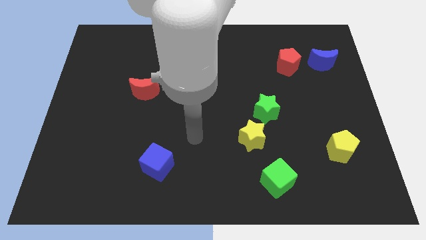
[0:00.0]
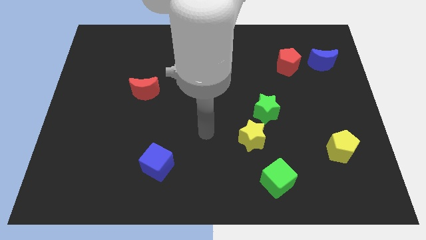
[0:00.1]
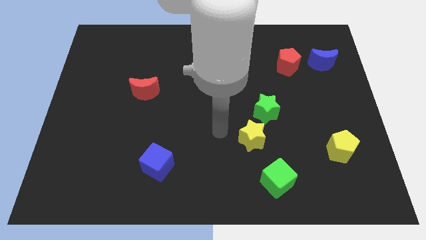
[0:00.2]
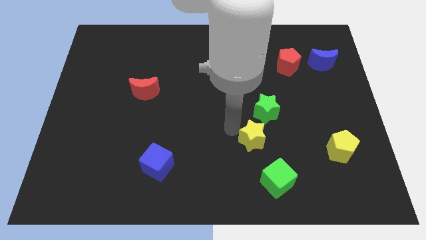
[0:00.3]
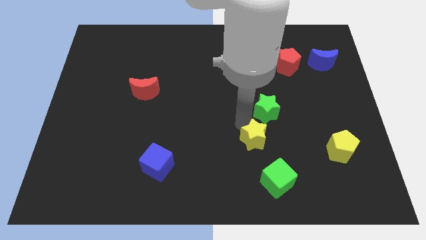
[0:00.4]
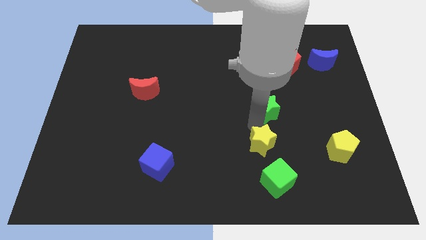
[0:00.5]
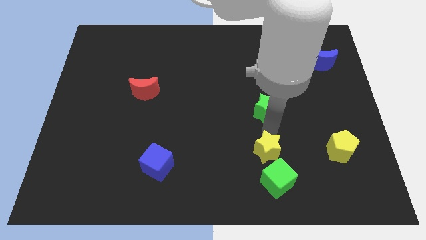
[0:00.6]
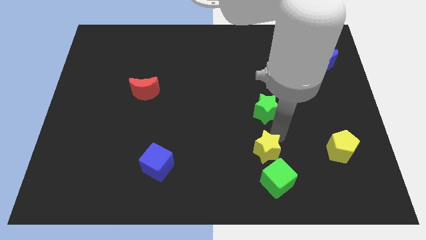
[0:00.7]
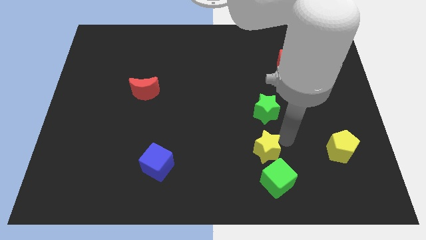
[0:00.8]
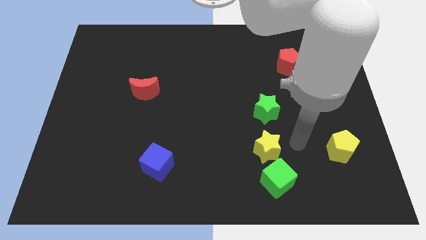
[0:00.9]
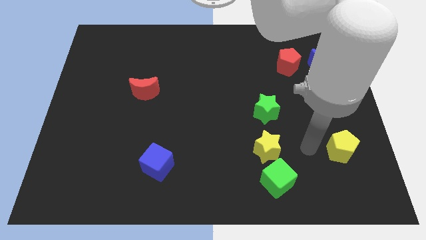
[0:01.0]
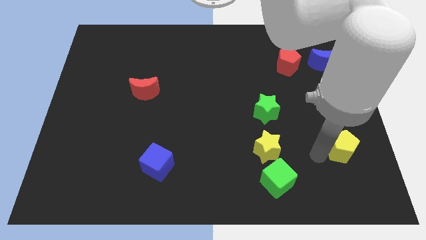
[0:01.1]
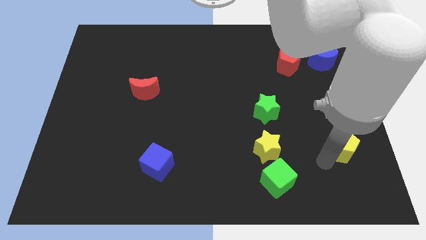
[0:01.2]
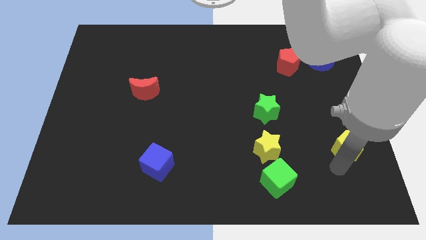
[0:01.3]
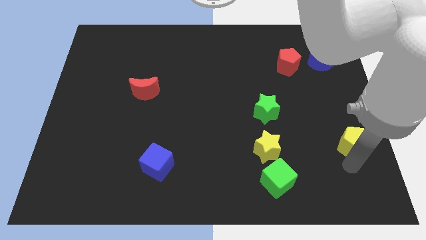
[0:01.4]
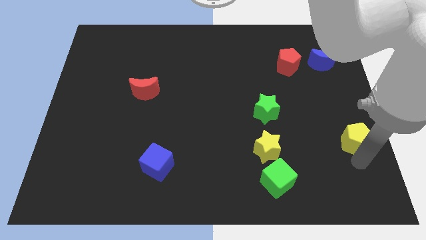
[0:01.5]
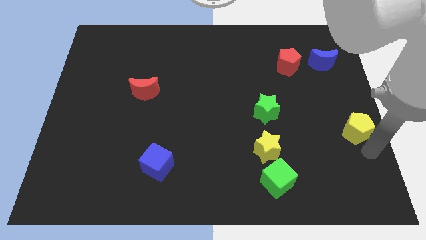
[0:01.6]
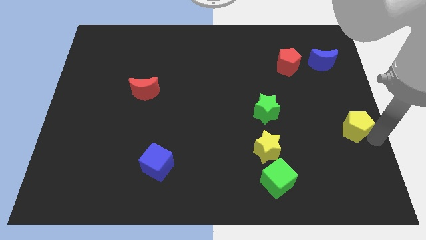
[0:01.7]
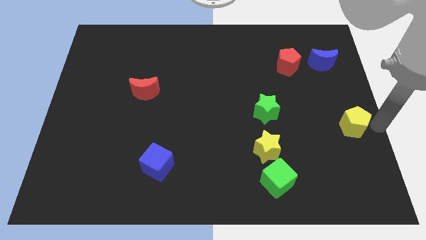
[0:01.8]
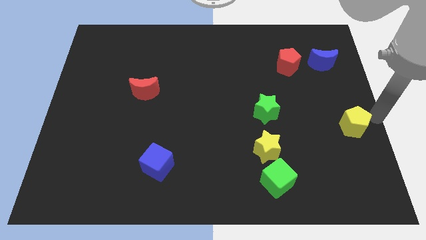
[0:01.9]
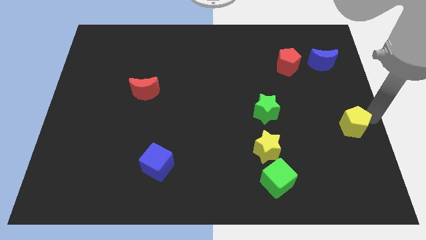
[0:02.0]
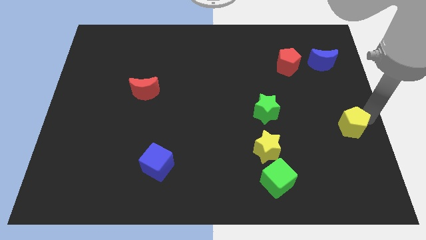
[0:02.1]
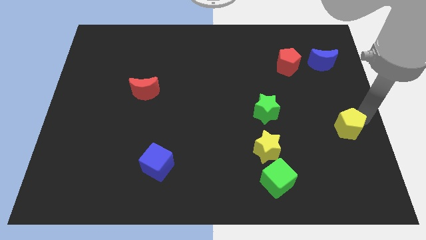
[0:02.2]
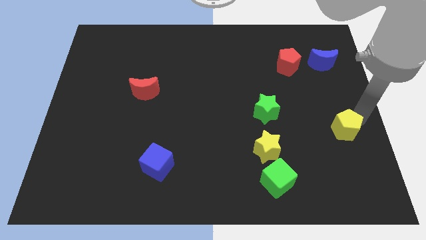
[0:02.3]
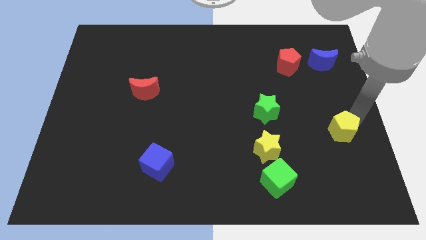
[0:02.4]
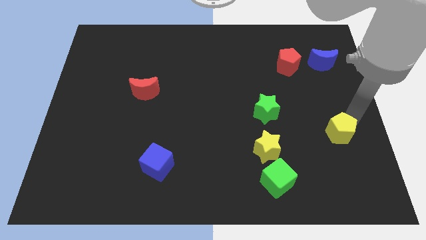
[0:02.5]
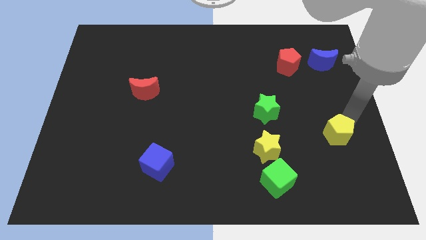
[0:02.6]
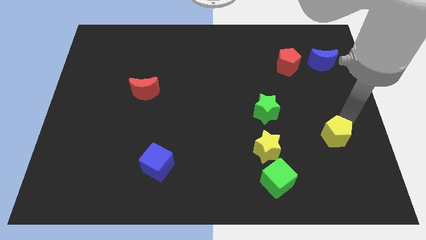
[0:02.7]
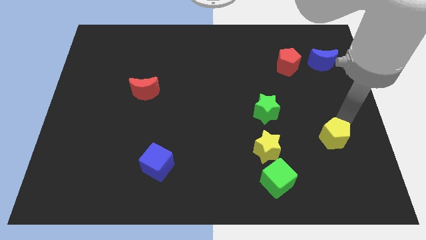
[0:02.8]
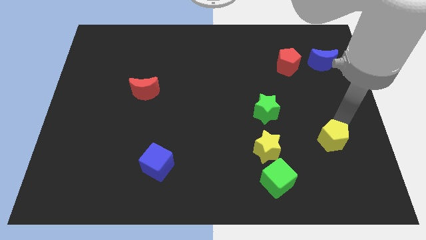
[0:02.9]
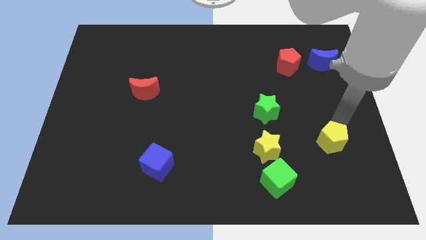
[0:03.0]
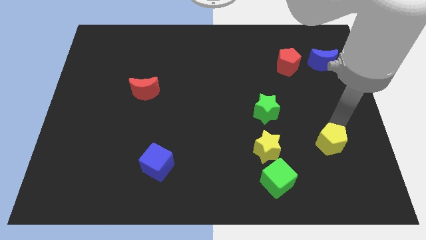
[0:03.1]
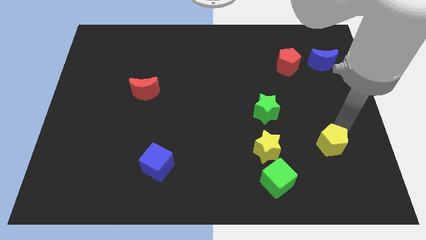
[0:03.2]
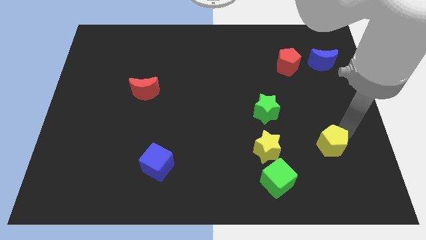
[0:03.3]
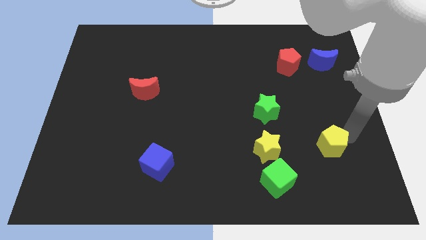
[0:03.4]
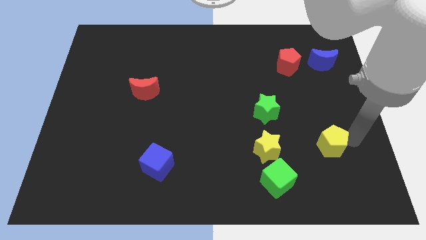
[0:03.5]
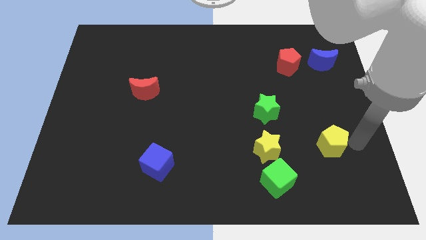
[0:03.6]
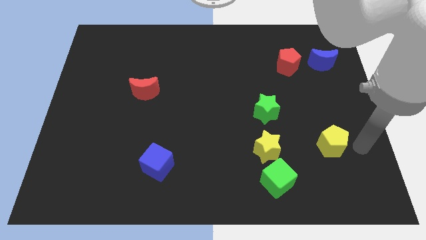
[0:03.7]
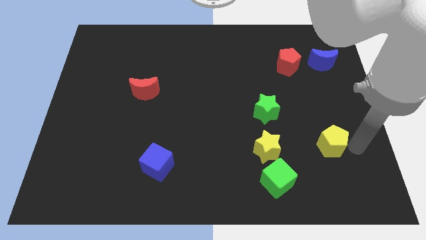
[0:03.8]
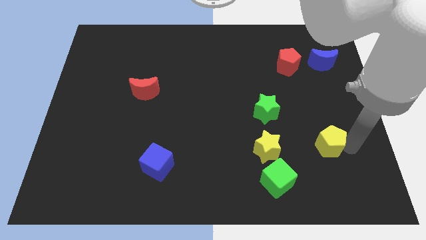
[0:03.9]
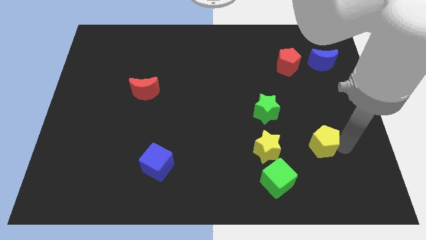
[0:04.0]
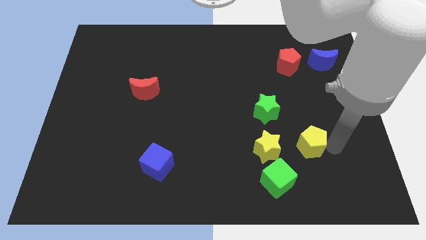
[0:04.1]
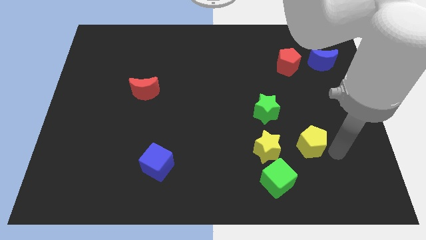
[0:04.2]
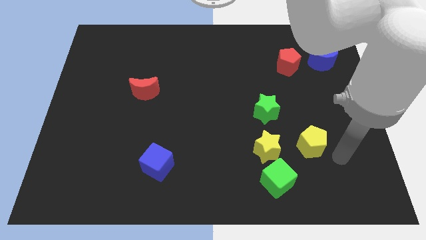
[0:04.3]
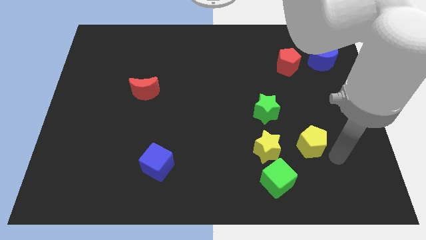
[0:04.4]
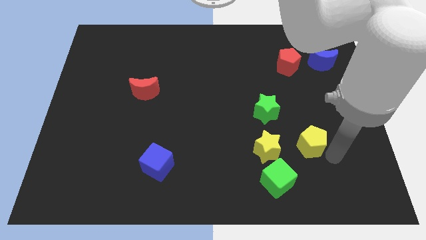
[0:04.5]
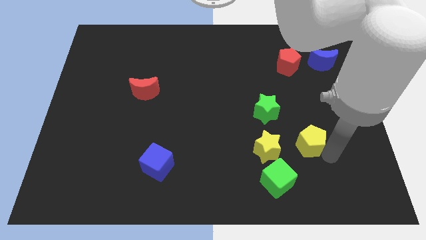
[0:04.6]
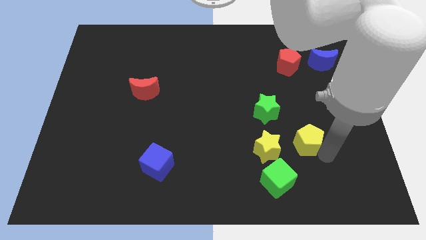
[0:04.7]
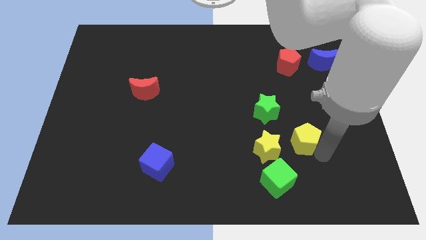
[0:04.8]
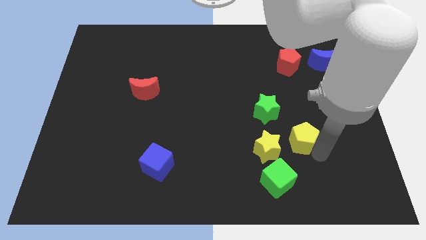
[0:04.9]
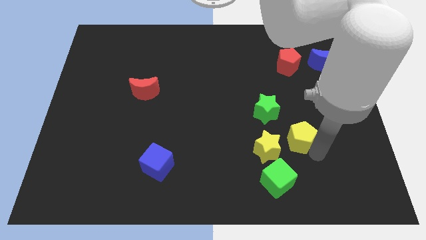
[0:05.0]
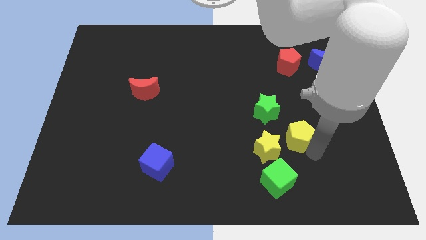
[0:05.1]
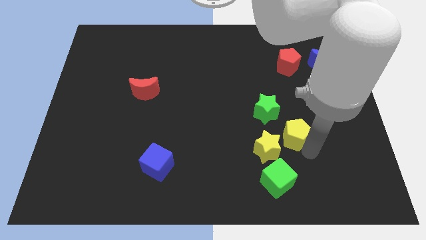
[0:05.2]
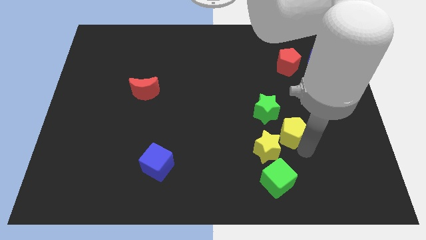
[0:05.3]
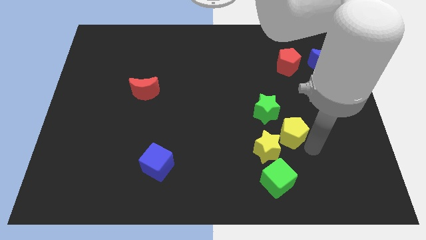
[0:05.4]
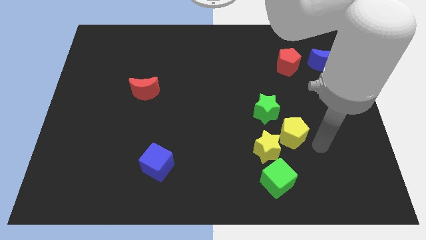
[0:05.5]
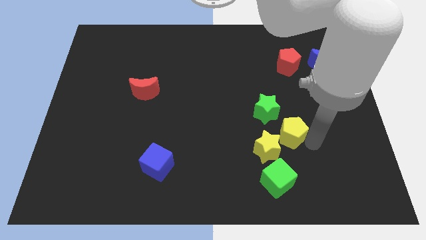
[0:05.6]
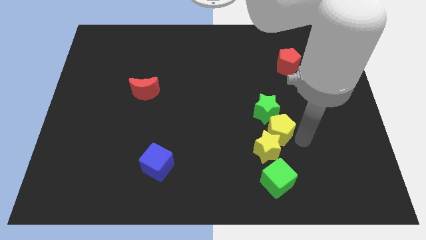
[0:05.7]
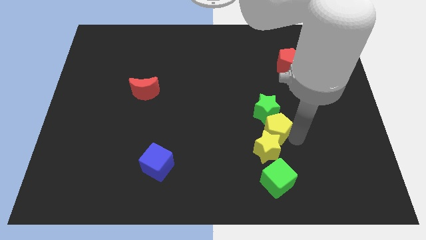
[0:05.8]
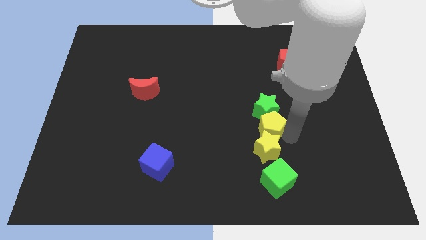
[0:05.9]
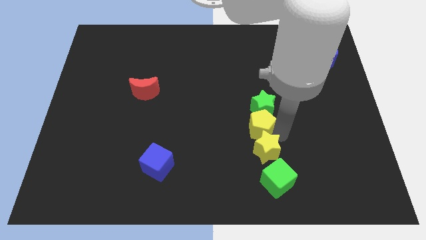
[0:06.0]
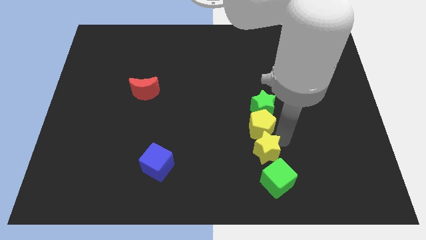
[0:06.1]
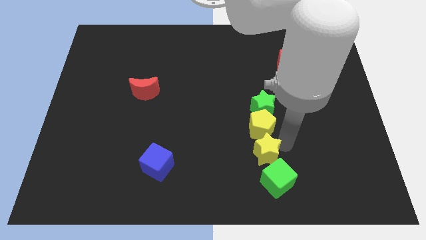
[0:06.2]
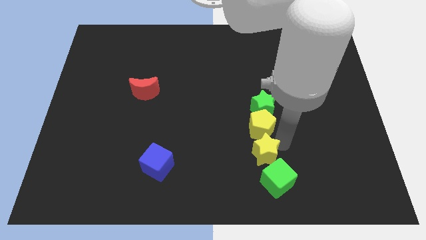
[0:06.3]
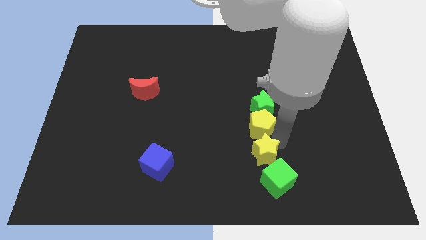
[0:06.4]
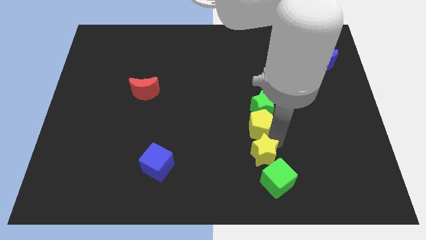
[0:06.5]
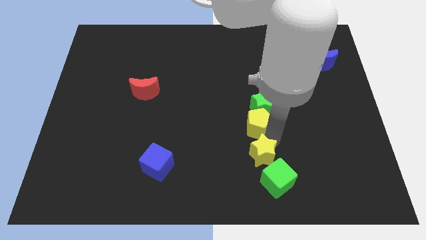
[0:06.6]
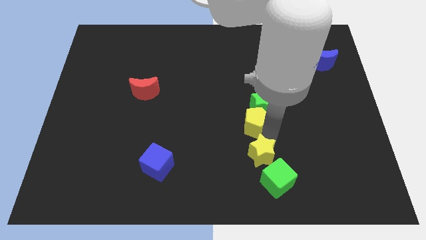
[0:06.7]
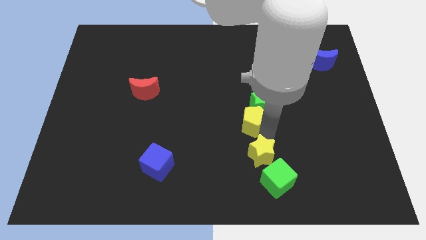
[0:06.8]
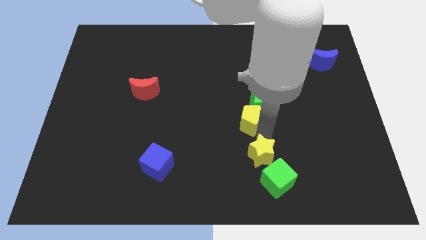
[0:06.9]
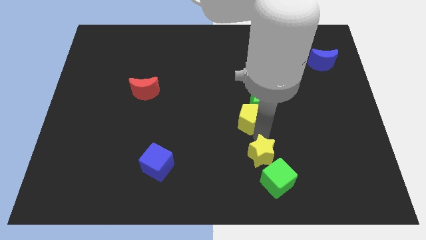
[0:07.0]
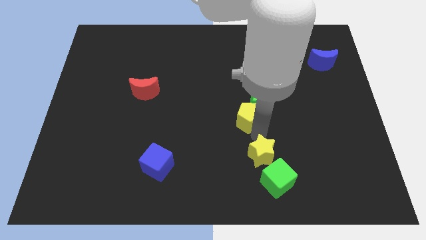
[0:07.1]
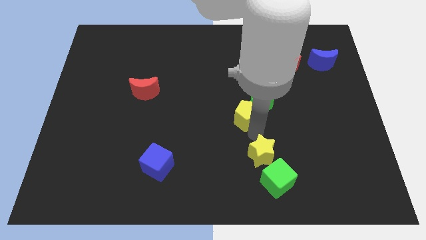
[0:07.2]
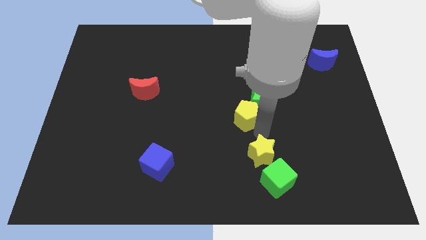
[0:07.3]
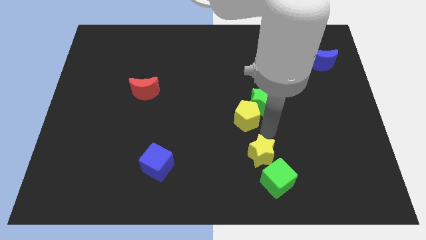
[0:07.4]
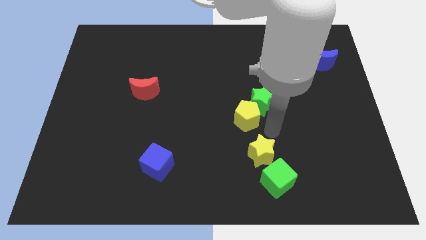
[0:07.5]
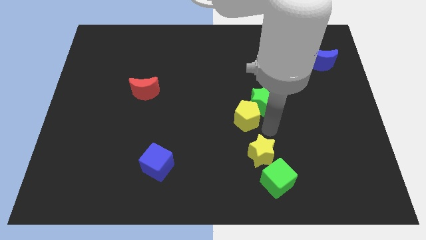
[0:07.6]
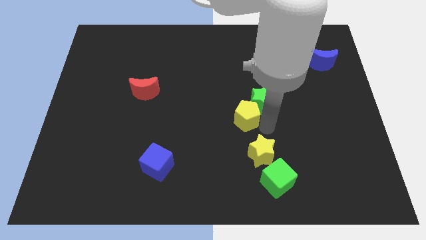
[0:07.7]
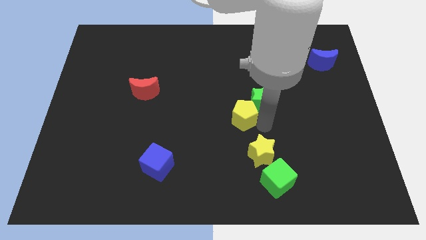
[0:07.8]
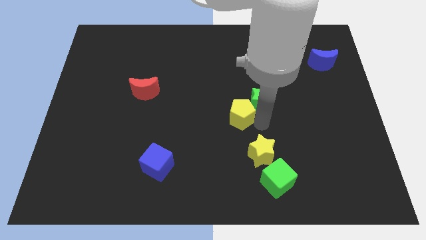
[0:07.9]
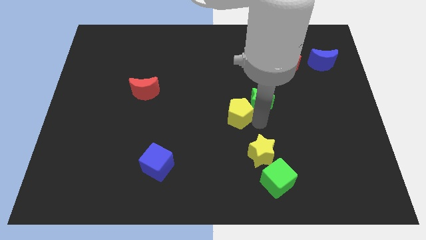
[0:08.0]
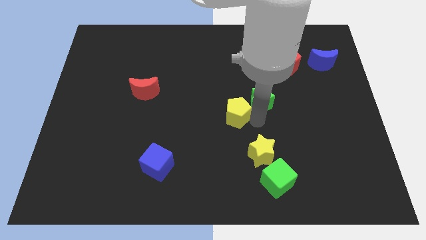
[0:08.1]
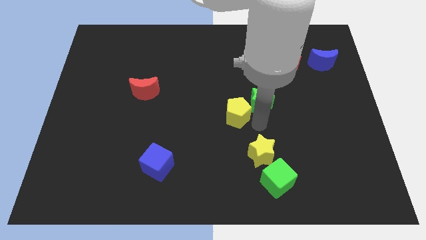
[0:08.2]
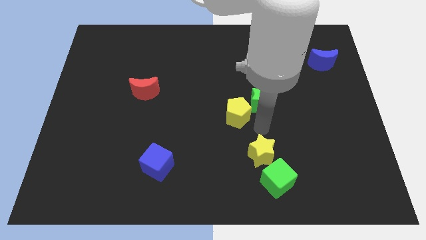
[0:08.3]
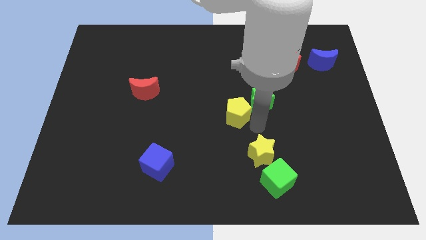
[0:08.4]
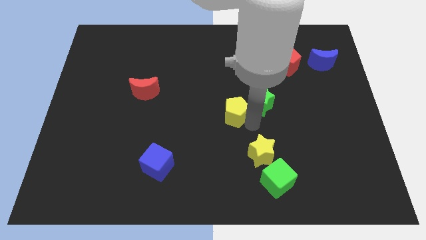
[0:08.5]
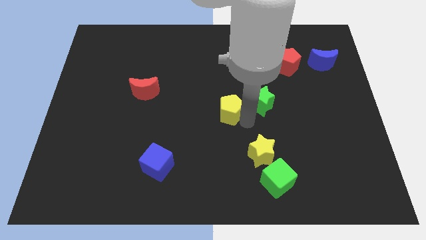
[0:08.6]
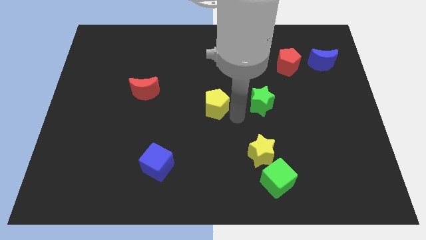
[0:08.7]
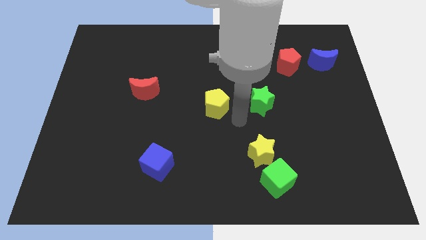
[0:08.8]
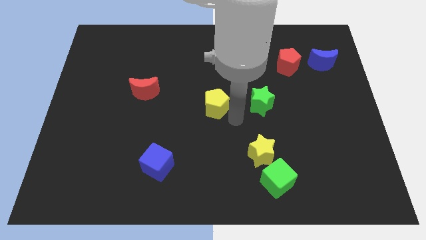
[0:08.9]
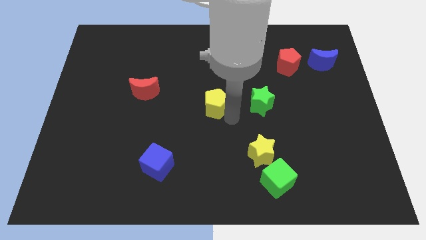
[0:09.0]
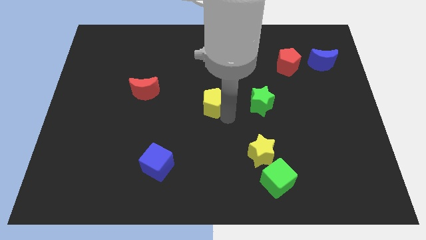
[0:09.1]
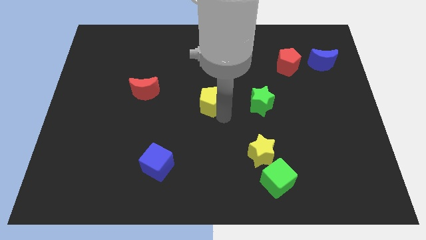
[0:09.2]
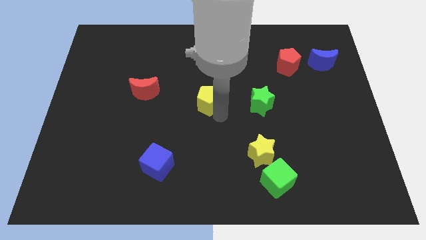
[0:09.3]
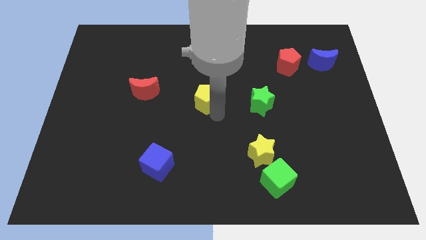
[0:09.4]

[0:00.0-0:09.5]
slide the yellow pentagon just right of the red moon
